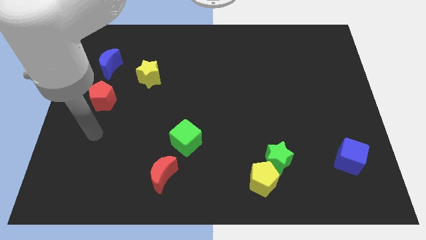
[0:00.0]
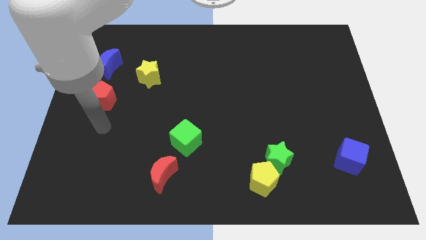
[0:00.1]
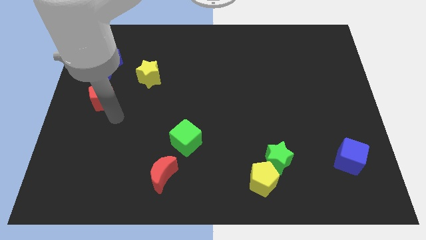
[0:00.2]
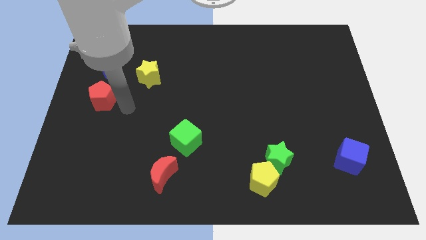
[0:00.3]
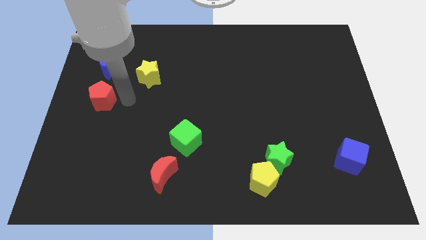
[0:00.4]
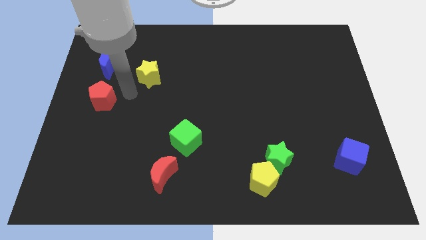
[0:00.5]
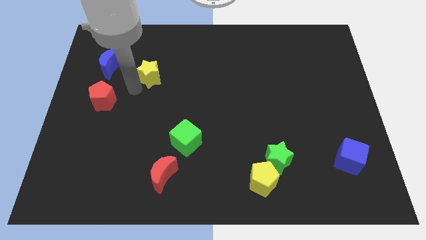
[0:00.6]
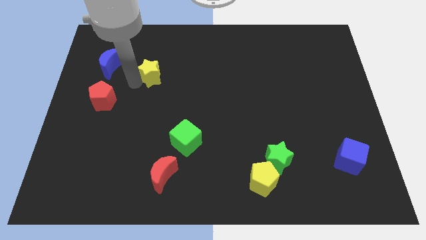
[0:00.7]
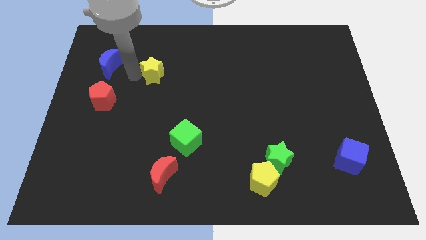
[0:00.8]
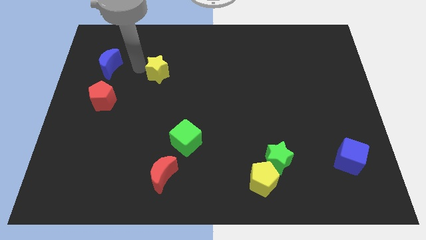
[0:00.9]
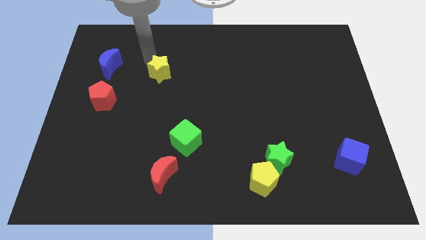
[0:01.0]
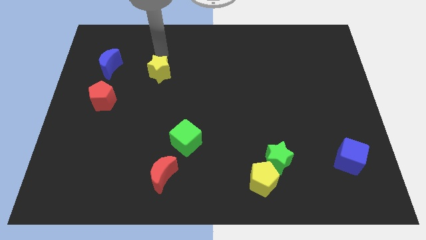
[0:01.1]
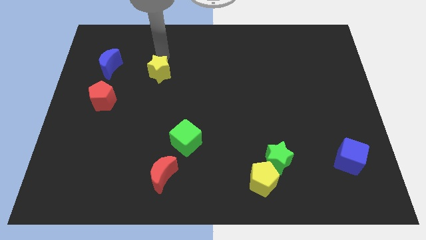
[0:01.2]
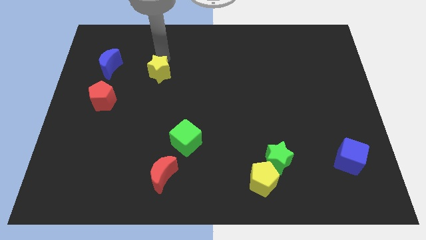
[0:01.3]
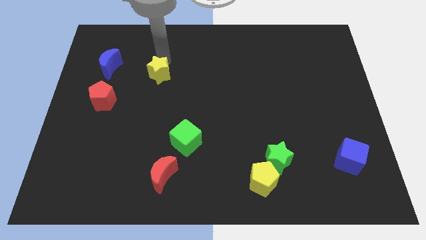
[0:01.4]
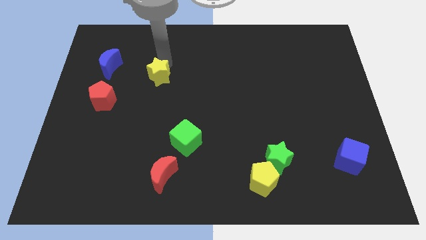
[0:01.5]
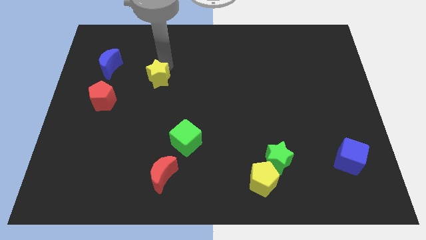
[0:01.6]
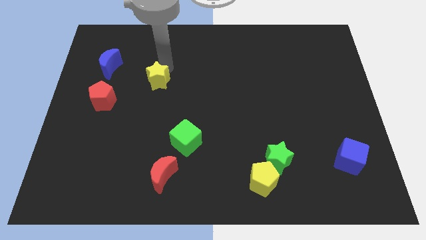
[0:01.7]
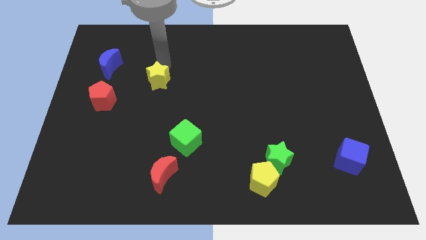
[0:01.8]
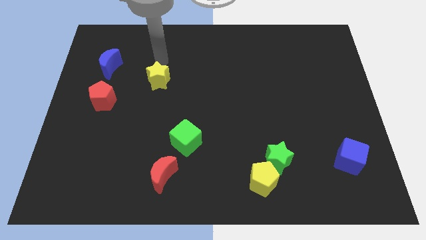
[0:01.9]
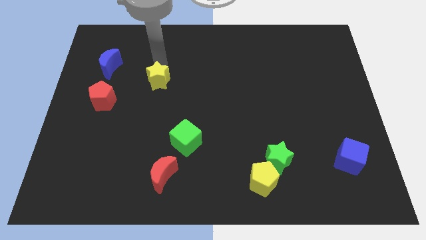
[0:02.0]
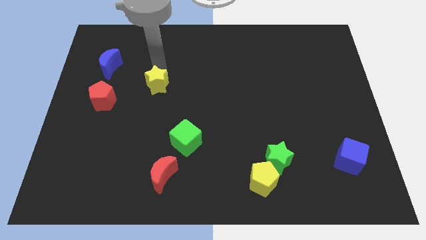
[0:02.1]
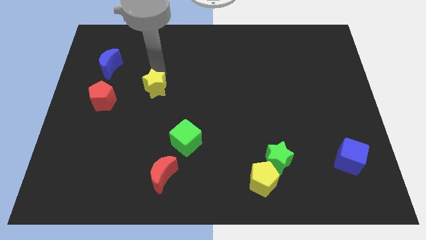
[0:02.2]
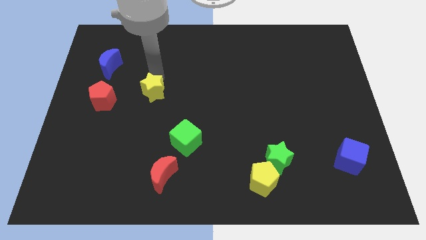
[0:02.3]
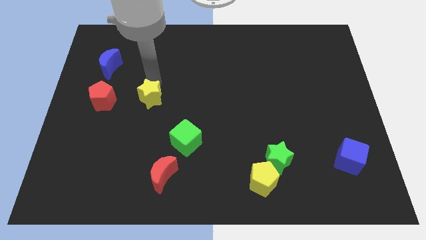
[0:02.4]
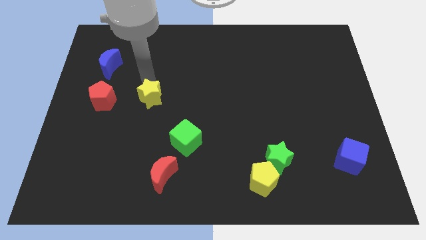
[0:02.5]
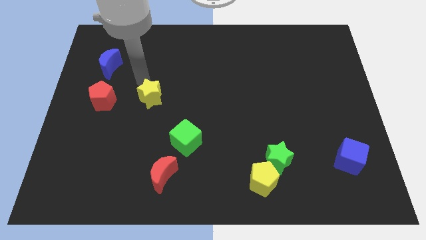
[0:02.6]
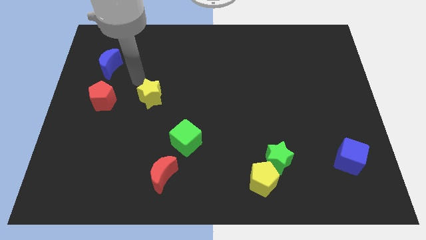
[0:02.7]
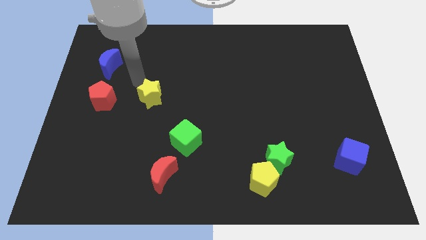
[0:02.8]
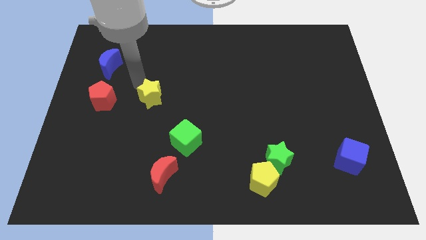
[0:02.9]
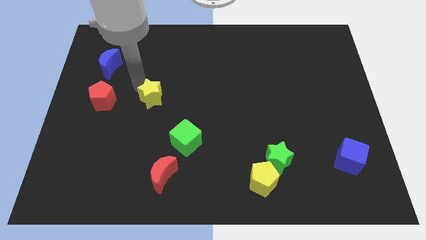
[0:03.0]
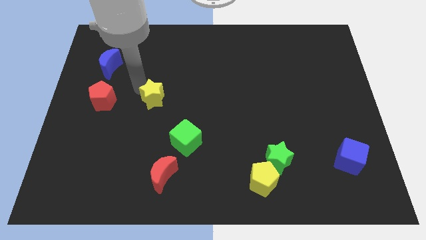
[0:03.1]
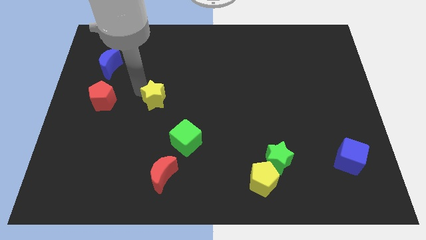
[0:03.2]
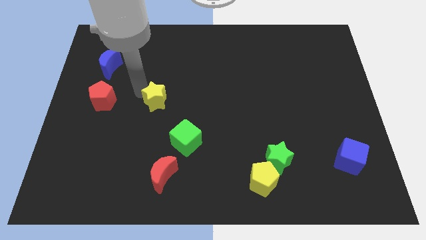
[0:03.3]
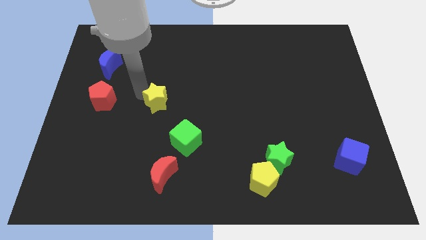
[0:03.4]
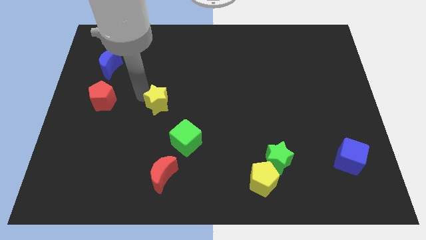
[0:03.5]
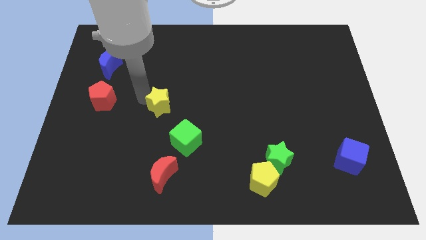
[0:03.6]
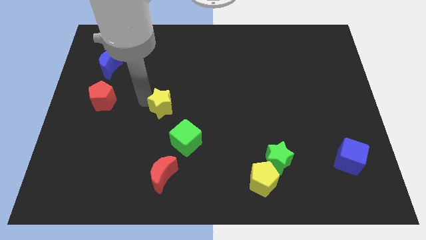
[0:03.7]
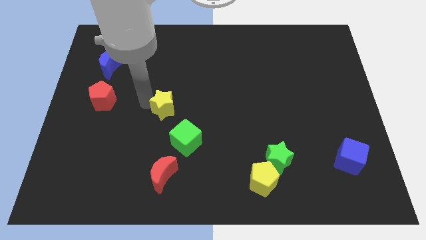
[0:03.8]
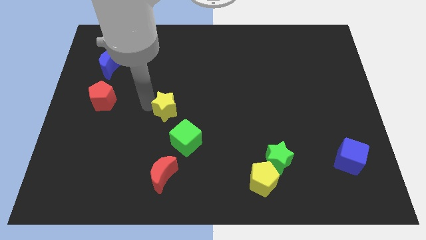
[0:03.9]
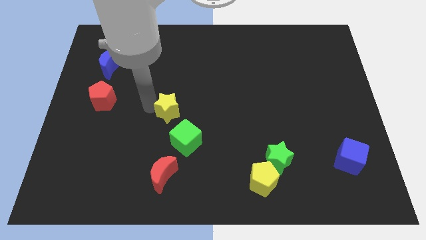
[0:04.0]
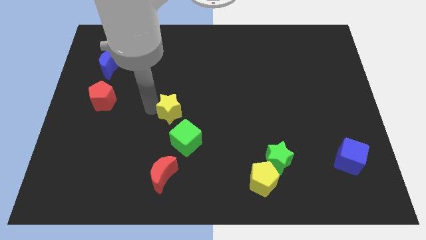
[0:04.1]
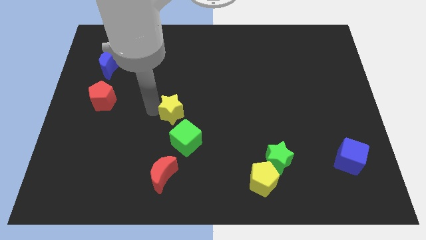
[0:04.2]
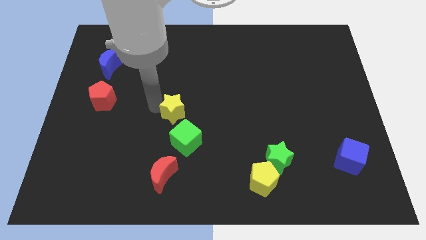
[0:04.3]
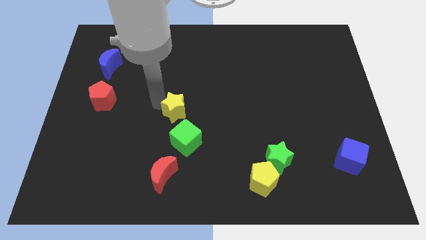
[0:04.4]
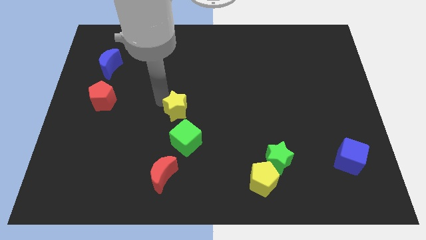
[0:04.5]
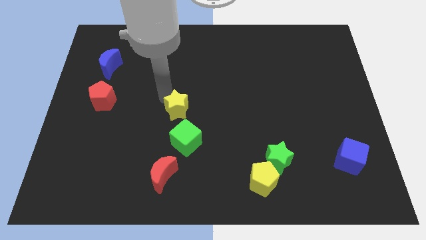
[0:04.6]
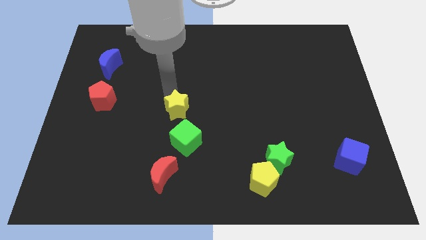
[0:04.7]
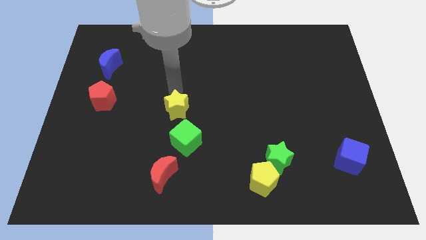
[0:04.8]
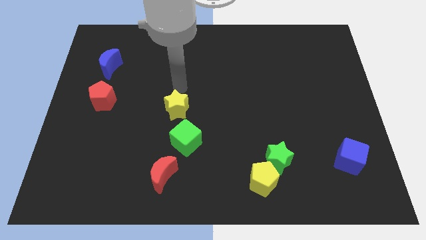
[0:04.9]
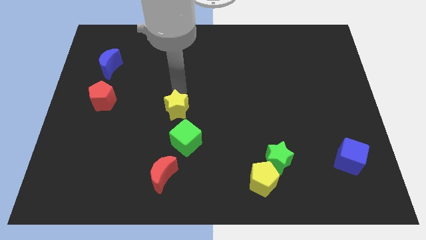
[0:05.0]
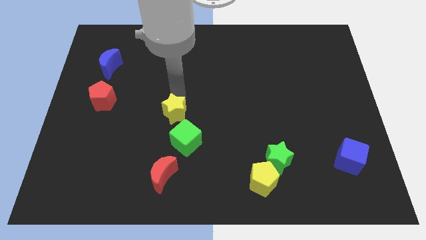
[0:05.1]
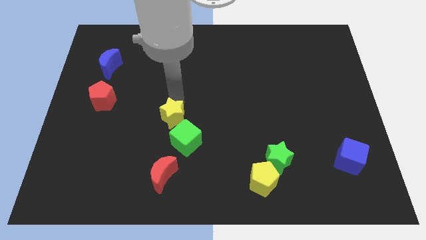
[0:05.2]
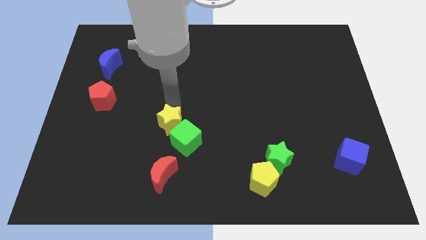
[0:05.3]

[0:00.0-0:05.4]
push the yellow star next to the green cube

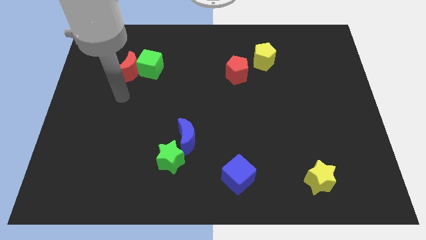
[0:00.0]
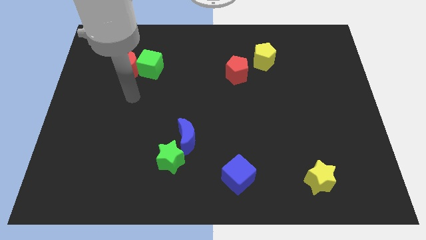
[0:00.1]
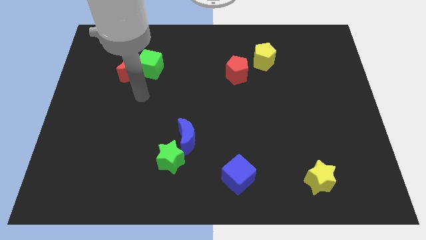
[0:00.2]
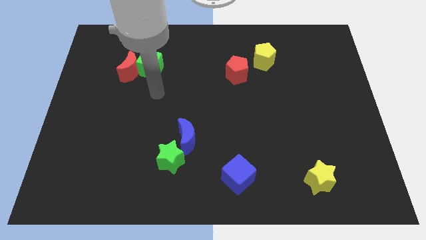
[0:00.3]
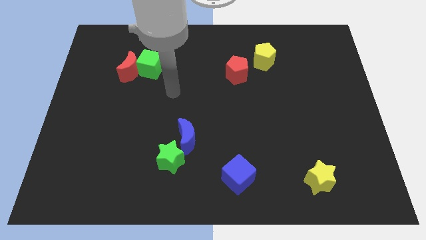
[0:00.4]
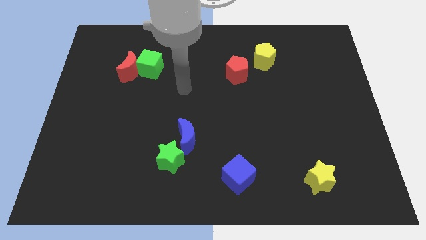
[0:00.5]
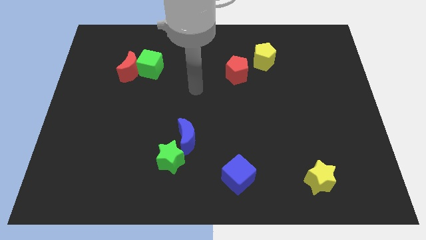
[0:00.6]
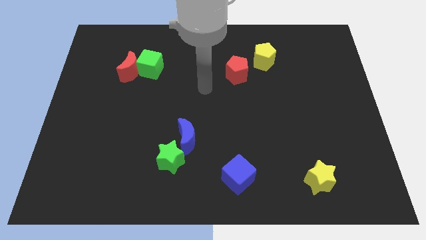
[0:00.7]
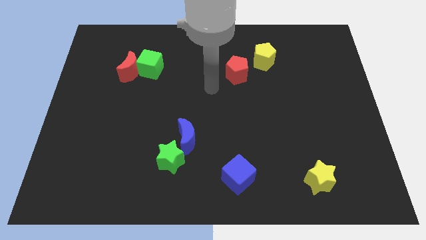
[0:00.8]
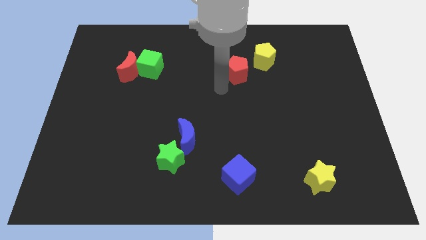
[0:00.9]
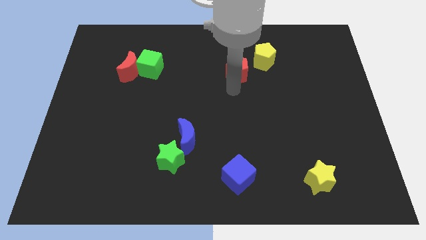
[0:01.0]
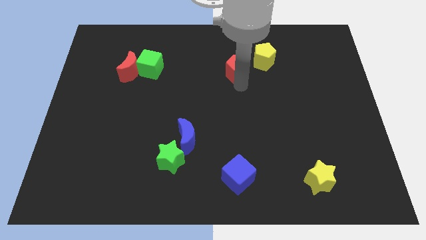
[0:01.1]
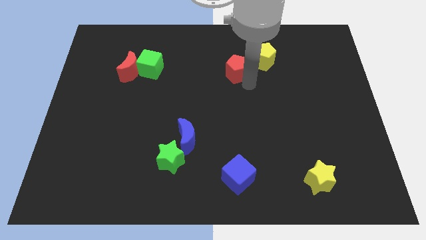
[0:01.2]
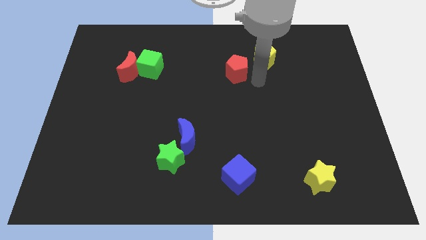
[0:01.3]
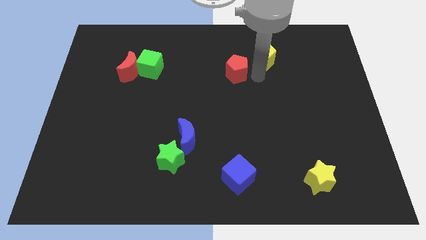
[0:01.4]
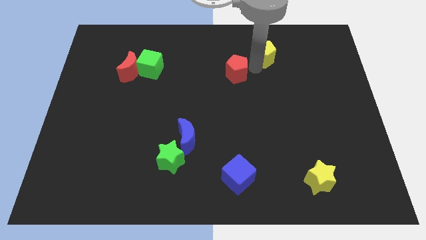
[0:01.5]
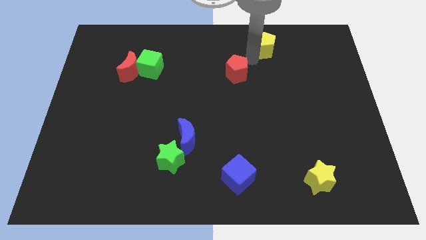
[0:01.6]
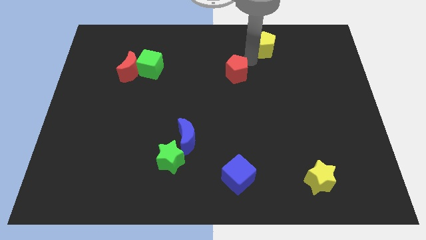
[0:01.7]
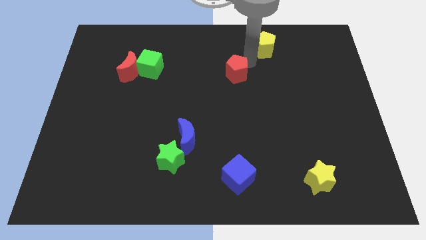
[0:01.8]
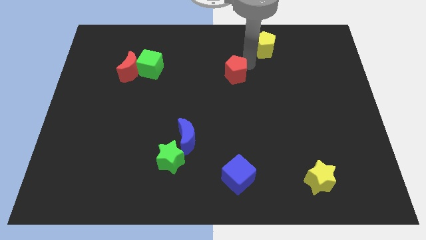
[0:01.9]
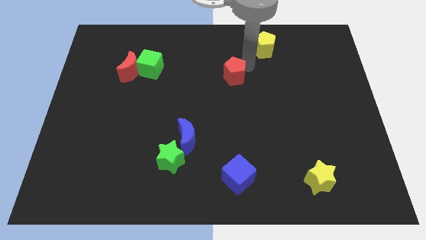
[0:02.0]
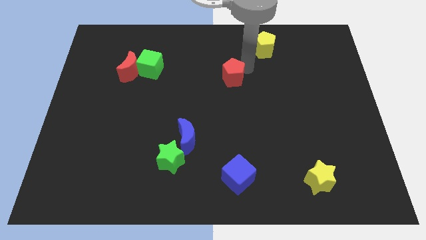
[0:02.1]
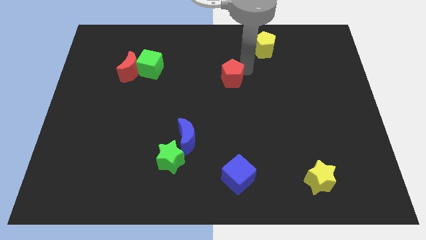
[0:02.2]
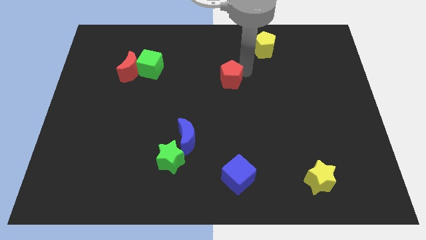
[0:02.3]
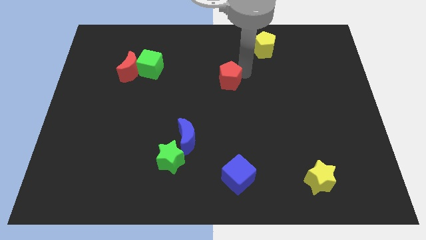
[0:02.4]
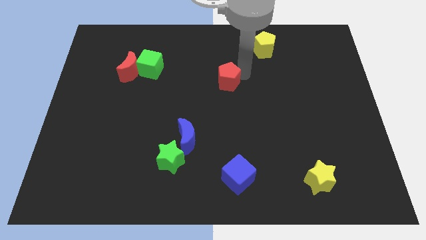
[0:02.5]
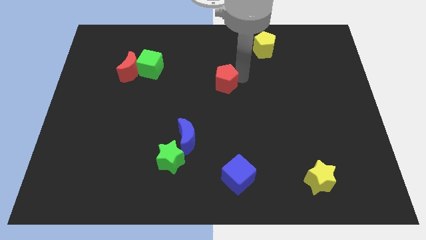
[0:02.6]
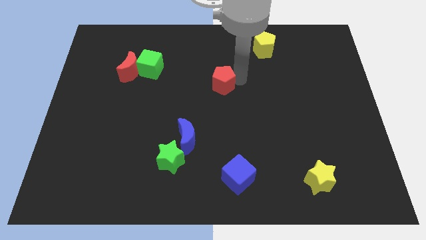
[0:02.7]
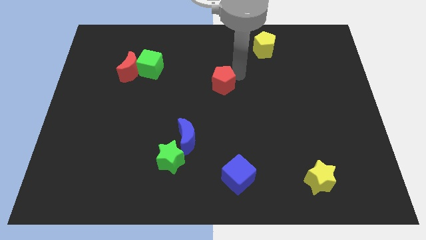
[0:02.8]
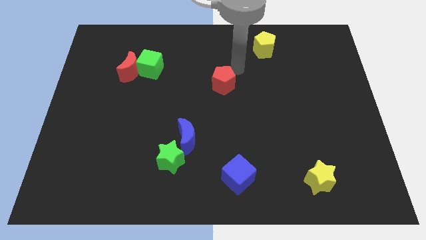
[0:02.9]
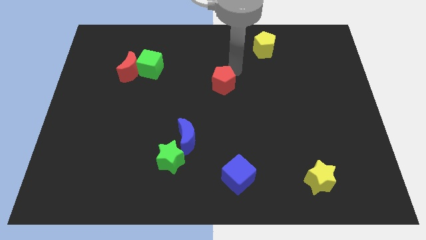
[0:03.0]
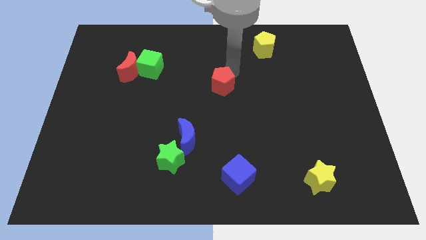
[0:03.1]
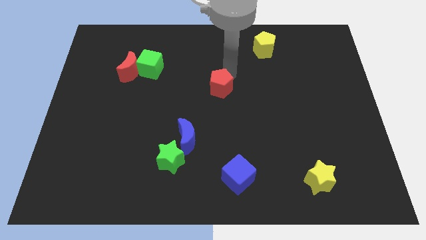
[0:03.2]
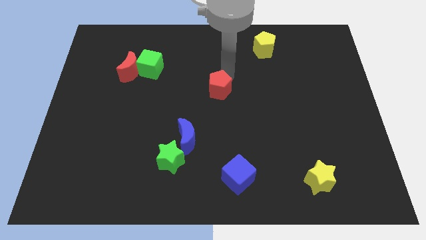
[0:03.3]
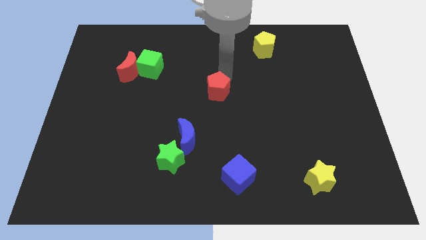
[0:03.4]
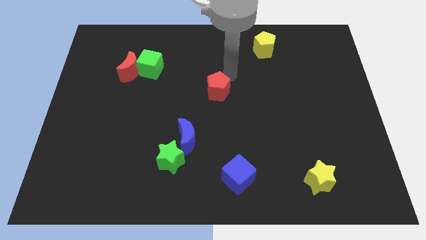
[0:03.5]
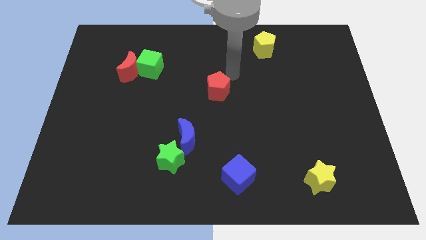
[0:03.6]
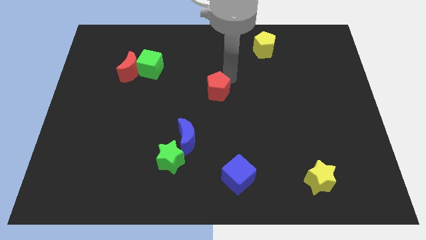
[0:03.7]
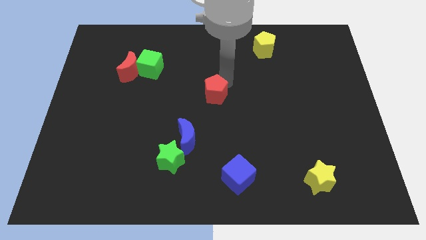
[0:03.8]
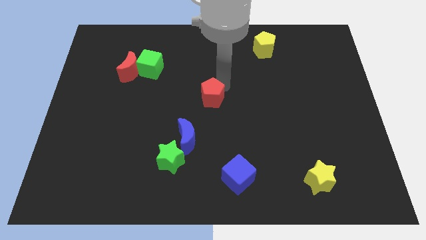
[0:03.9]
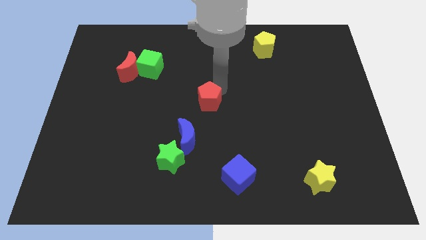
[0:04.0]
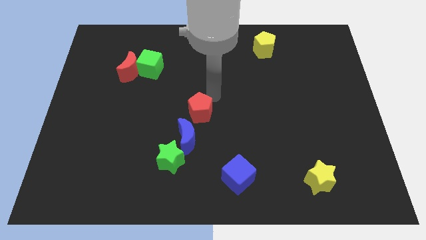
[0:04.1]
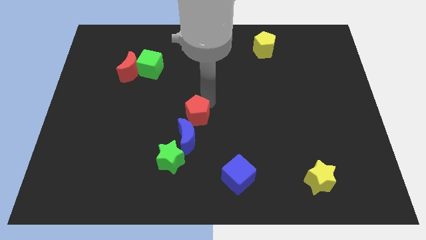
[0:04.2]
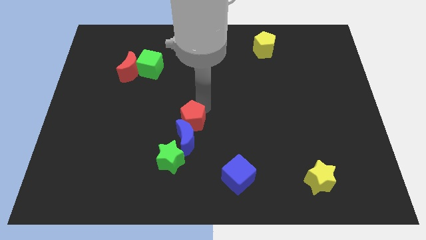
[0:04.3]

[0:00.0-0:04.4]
slide the red pentagon towards the blue moon
